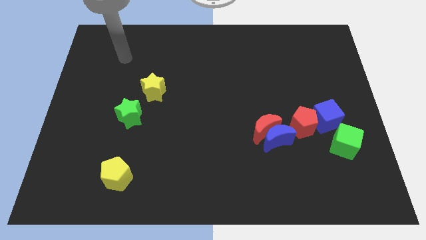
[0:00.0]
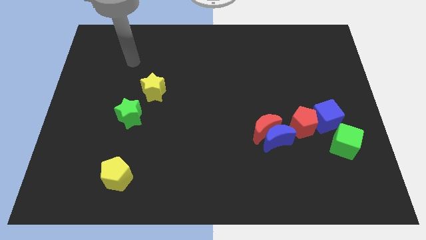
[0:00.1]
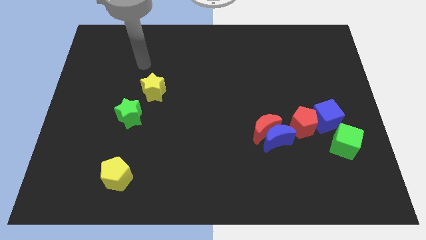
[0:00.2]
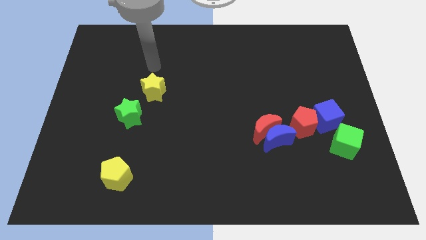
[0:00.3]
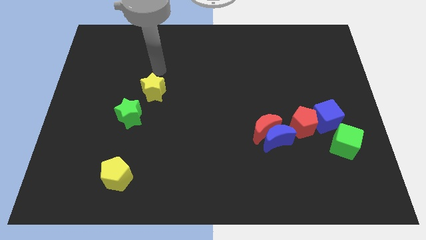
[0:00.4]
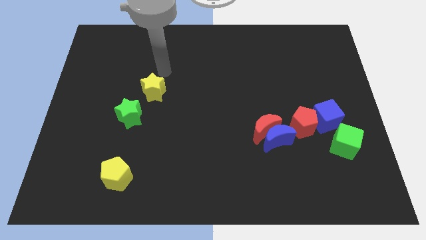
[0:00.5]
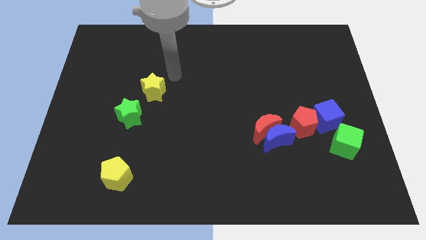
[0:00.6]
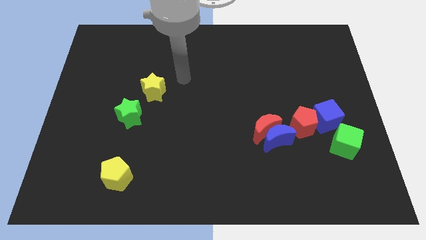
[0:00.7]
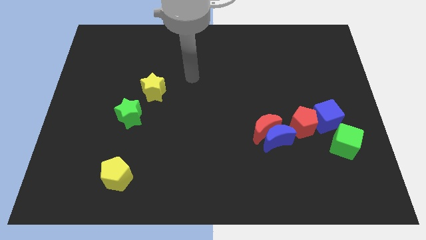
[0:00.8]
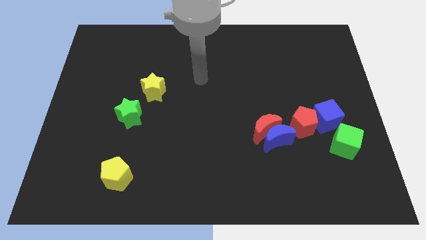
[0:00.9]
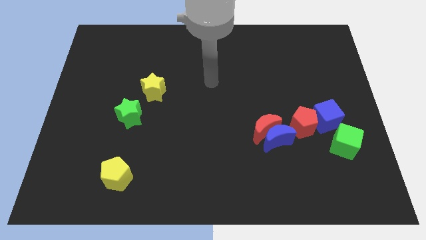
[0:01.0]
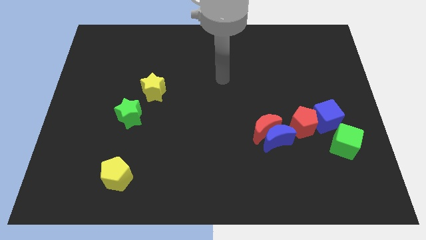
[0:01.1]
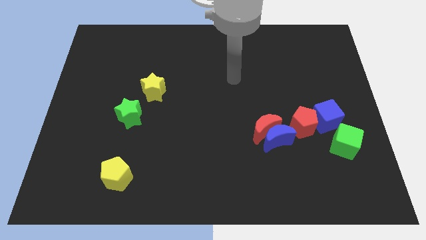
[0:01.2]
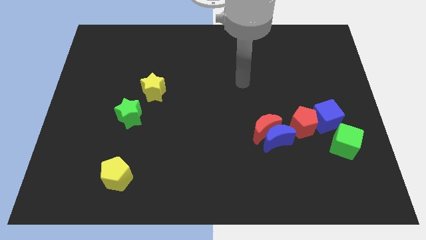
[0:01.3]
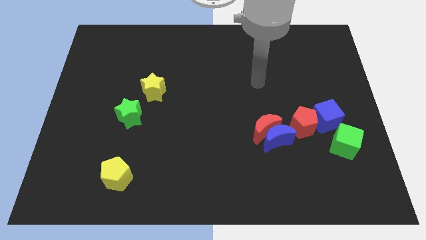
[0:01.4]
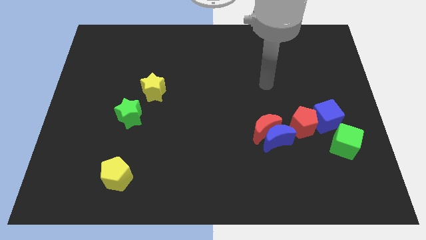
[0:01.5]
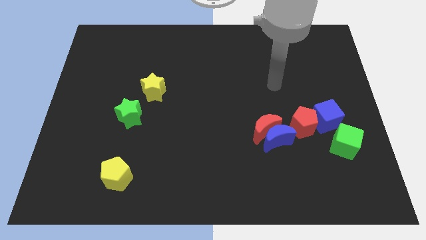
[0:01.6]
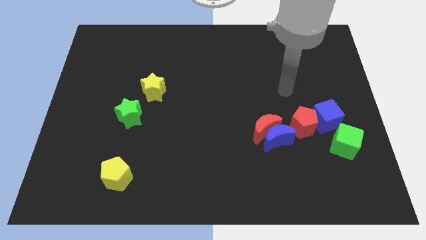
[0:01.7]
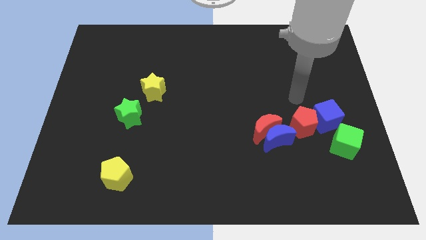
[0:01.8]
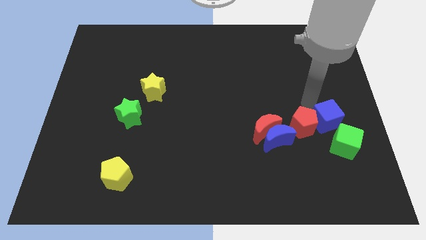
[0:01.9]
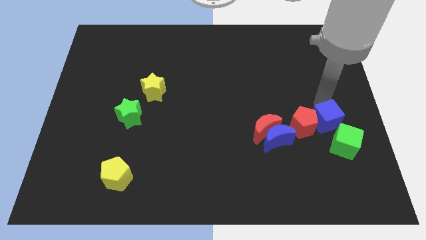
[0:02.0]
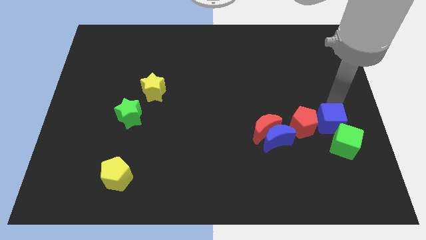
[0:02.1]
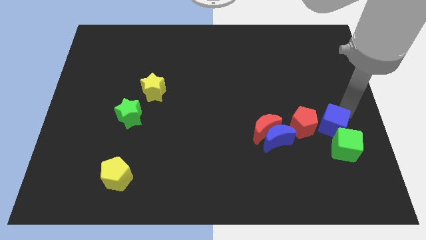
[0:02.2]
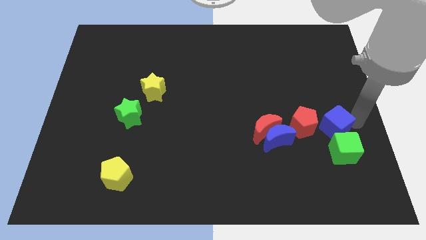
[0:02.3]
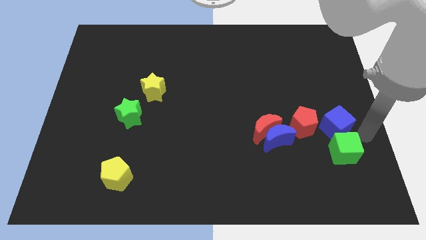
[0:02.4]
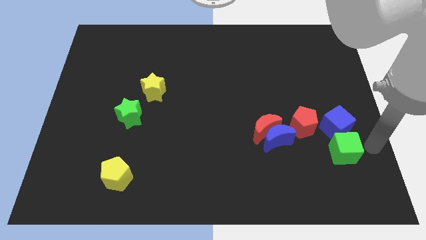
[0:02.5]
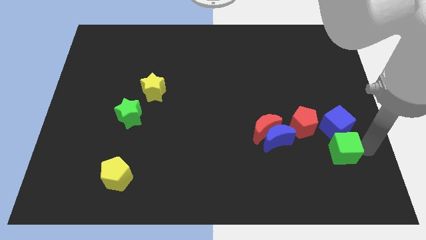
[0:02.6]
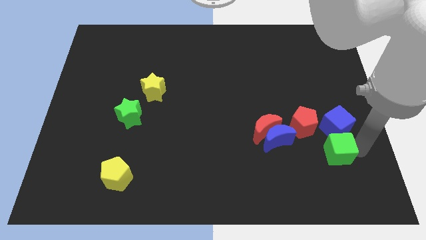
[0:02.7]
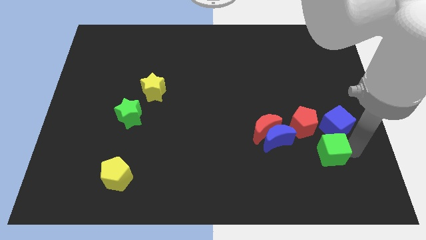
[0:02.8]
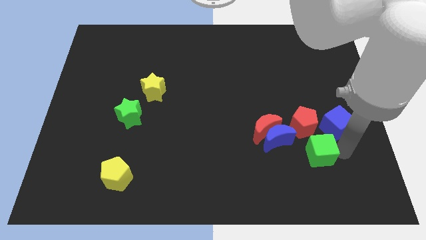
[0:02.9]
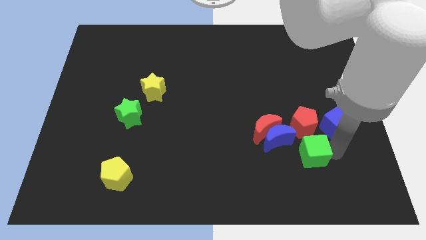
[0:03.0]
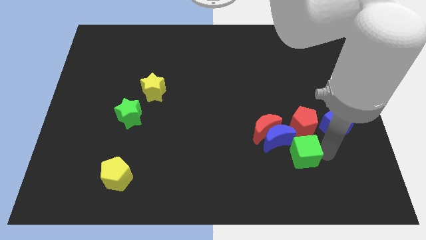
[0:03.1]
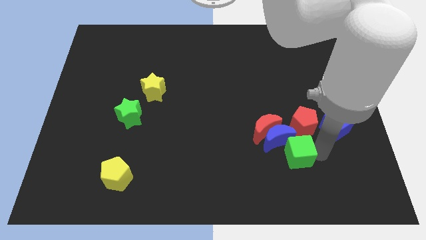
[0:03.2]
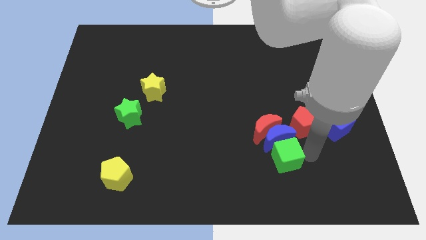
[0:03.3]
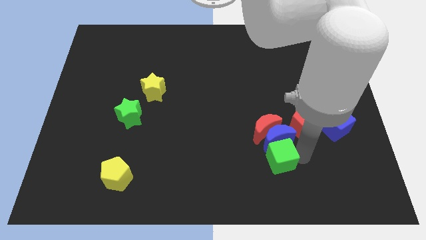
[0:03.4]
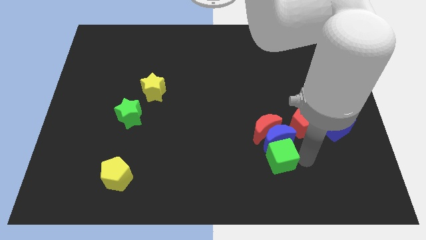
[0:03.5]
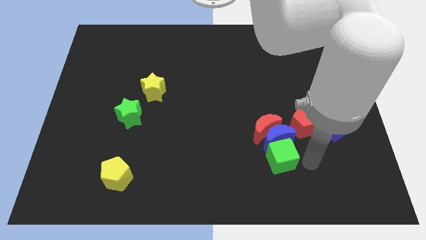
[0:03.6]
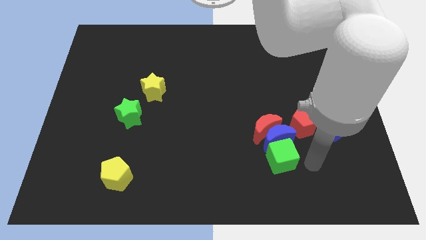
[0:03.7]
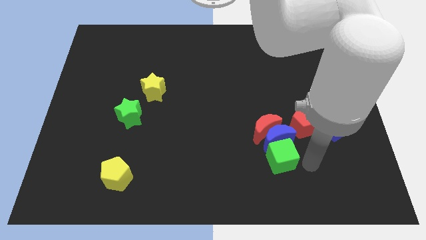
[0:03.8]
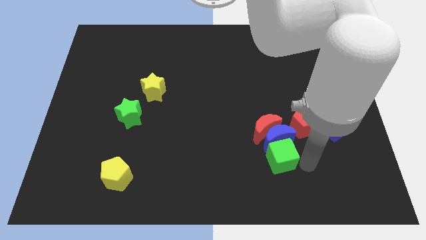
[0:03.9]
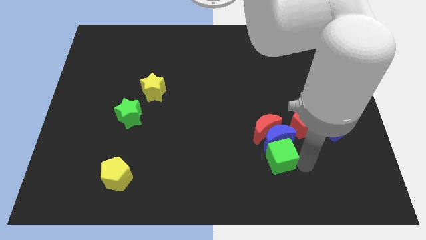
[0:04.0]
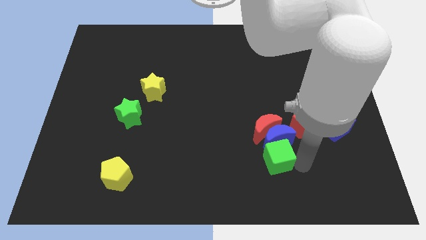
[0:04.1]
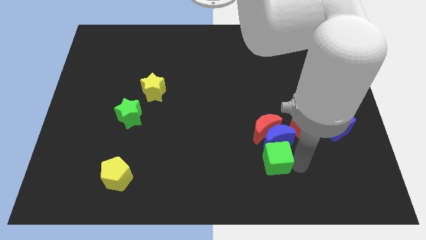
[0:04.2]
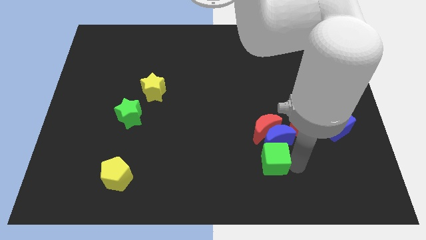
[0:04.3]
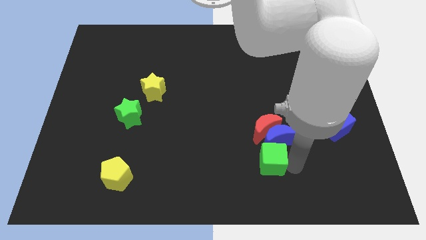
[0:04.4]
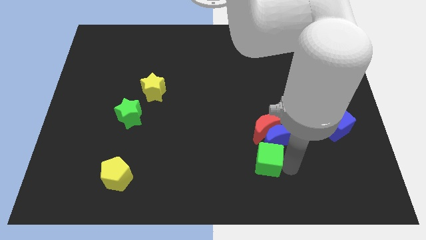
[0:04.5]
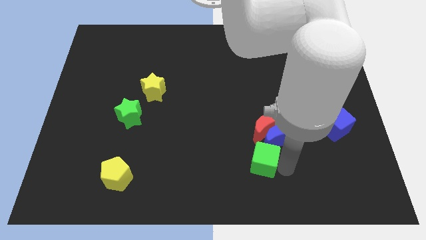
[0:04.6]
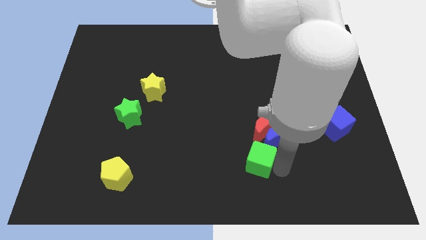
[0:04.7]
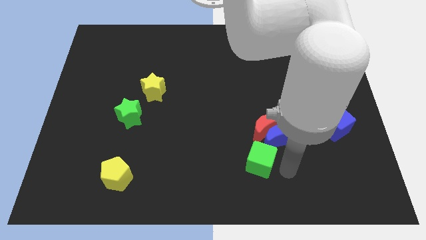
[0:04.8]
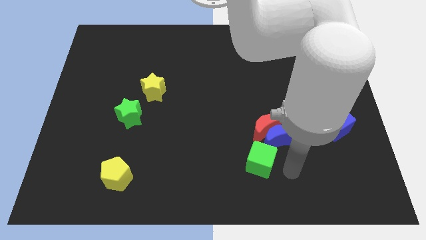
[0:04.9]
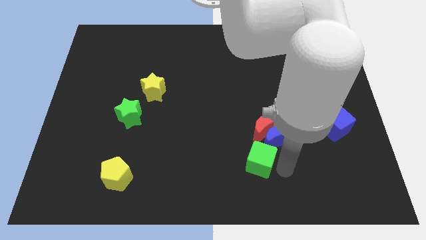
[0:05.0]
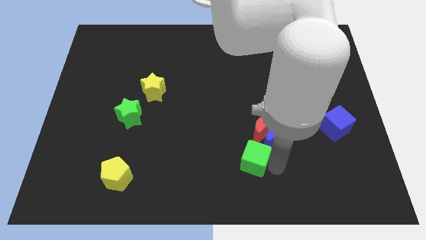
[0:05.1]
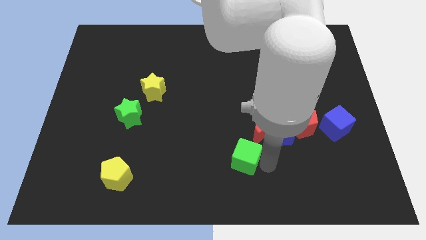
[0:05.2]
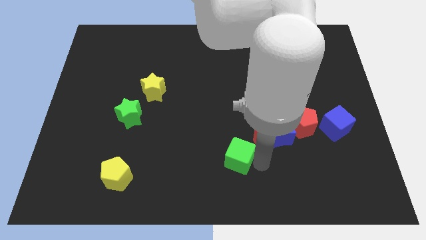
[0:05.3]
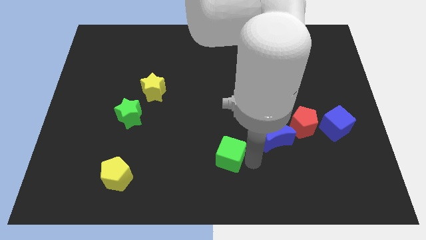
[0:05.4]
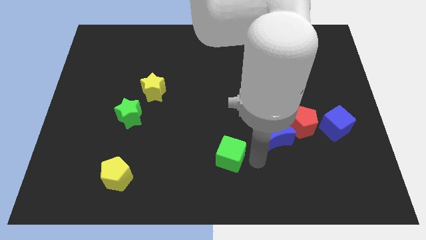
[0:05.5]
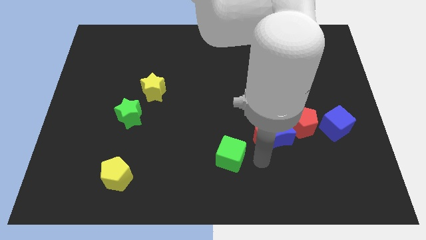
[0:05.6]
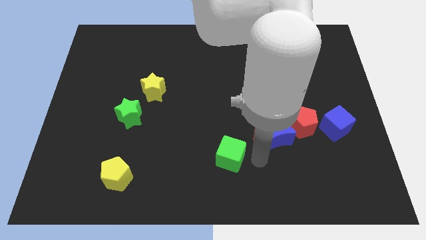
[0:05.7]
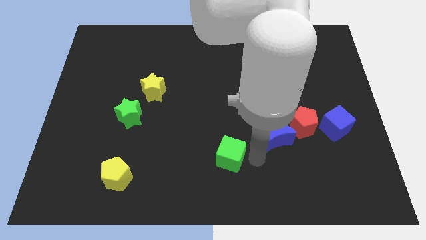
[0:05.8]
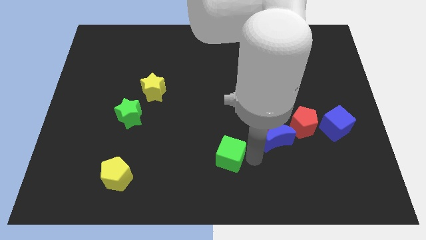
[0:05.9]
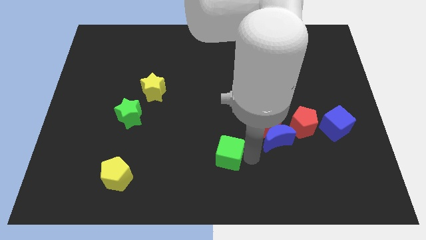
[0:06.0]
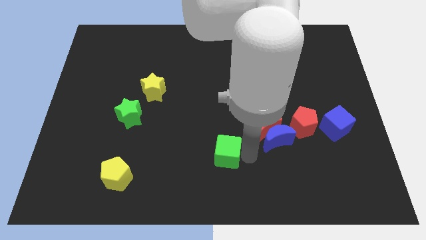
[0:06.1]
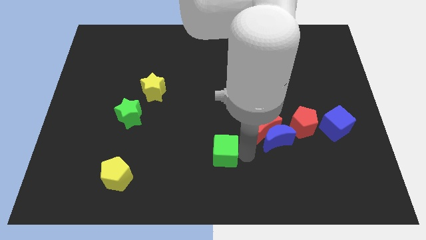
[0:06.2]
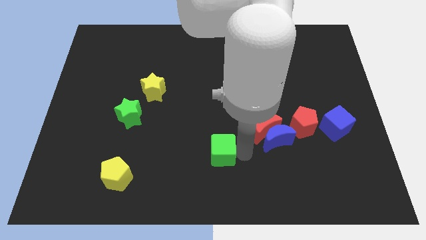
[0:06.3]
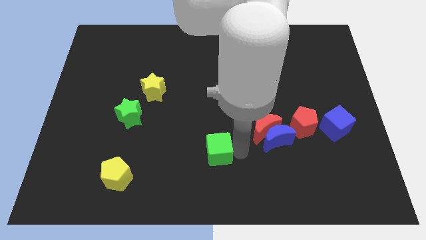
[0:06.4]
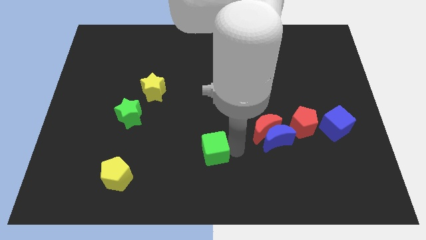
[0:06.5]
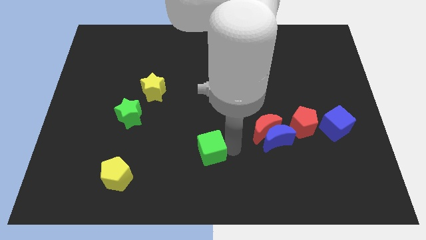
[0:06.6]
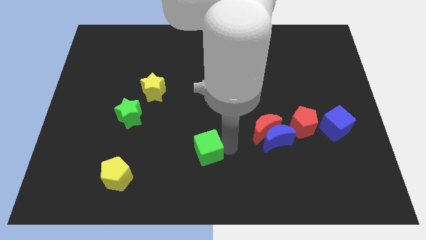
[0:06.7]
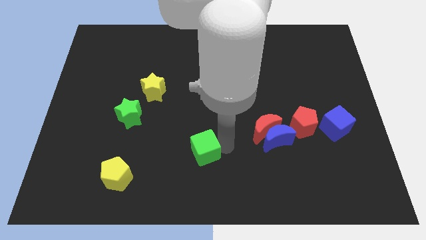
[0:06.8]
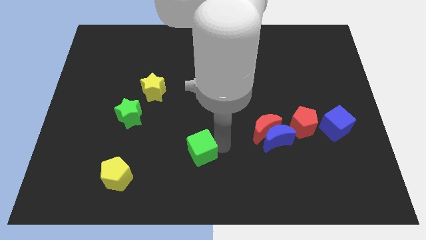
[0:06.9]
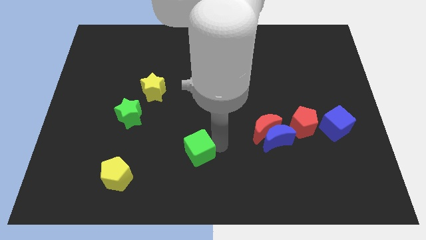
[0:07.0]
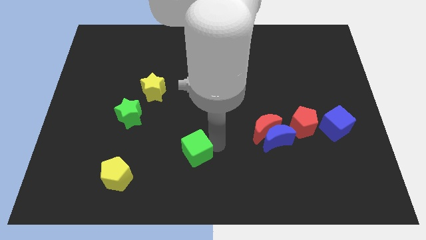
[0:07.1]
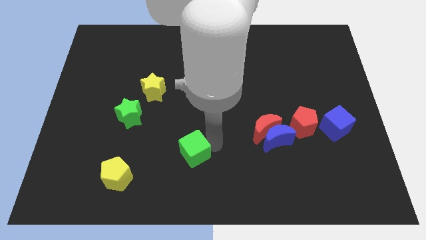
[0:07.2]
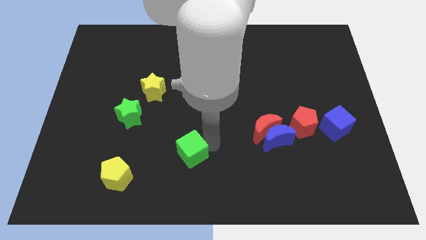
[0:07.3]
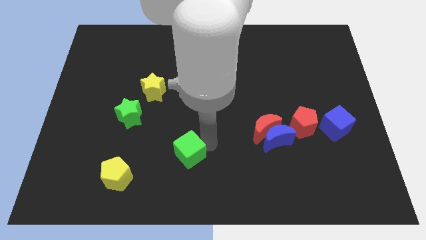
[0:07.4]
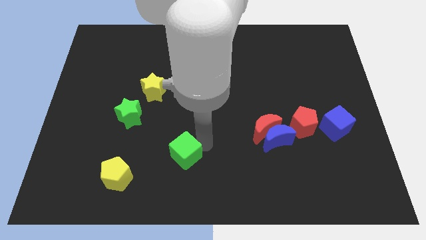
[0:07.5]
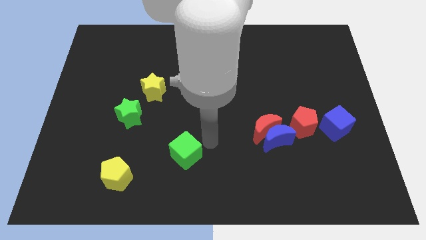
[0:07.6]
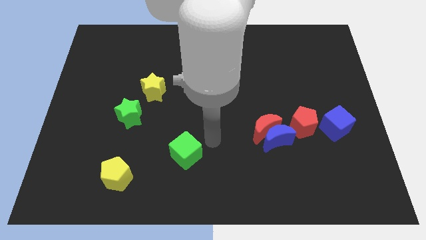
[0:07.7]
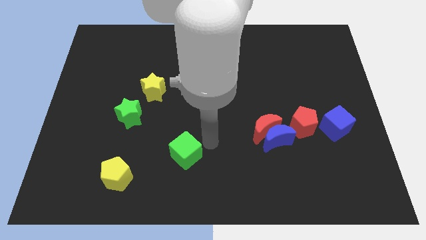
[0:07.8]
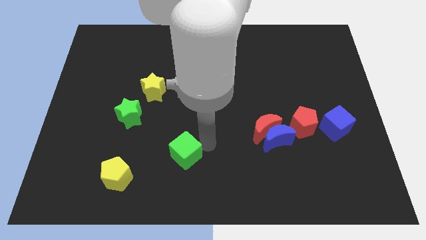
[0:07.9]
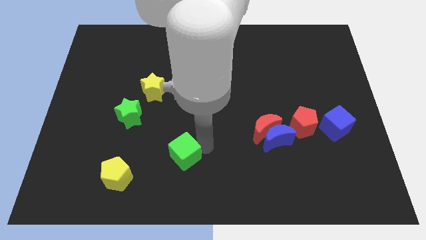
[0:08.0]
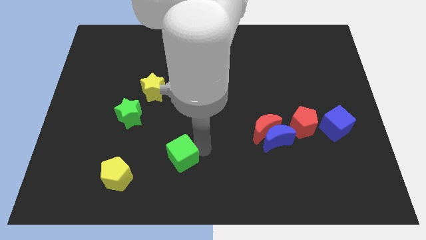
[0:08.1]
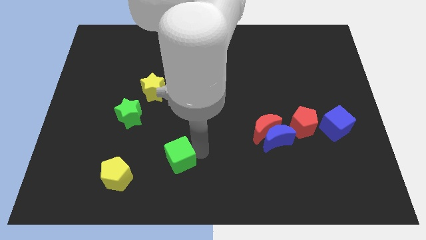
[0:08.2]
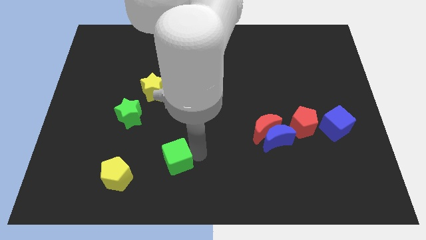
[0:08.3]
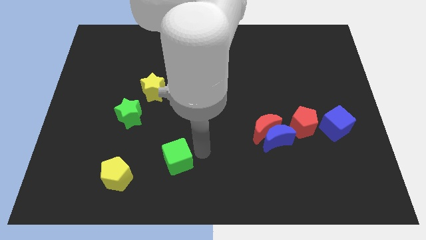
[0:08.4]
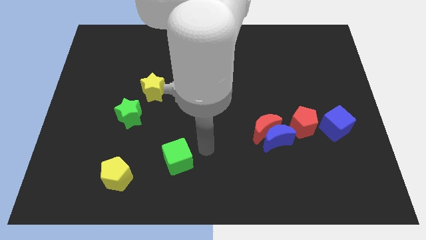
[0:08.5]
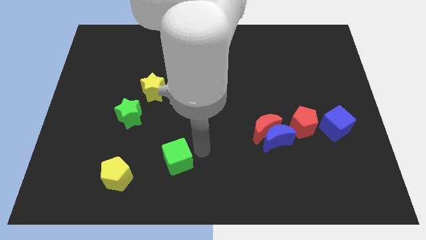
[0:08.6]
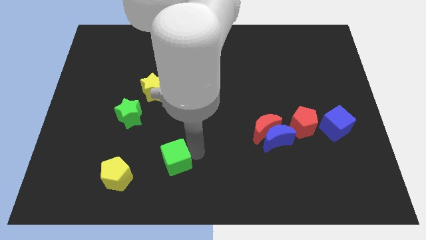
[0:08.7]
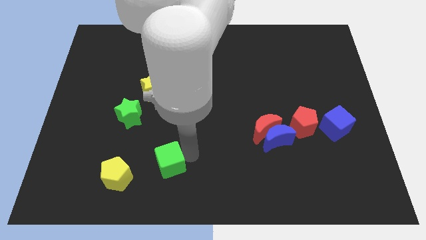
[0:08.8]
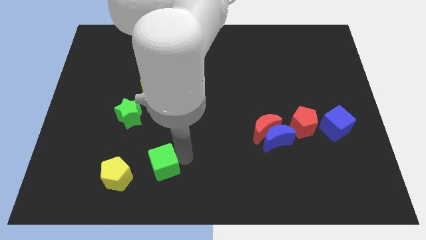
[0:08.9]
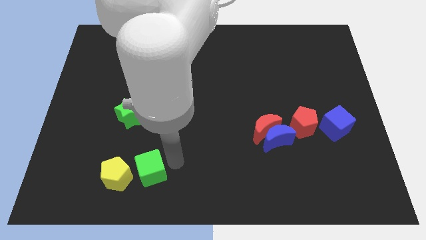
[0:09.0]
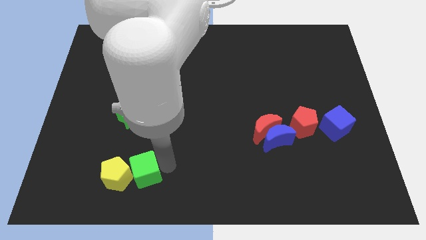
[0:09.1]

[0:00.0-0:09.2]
put the green cube next to the yellow pentagon
